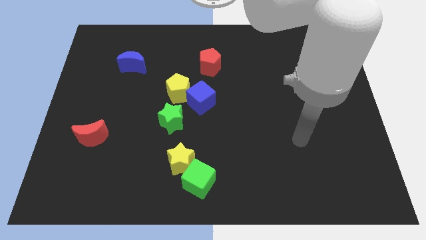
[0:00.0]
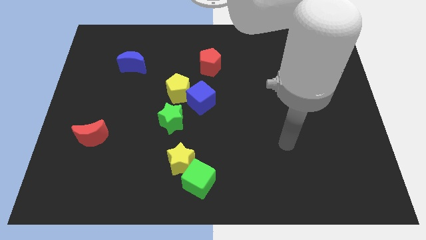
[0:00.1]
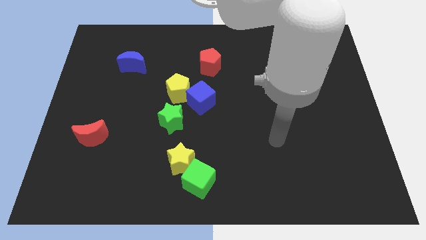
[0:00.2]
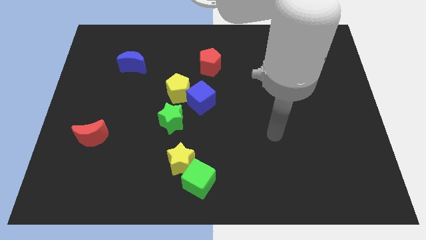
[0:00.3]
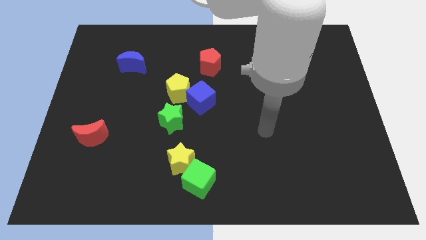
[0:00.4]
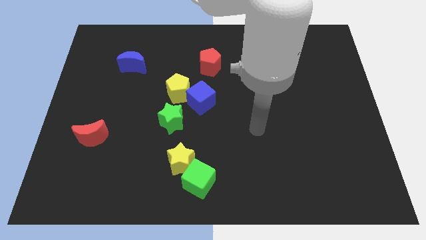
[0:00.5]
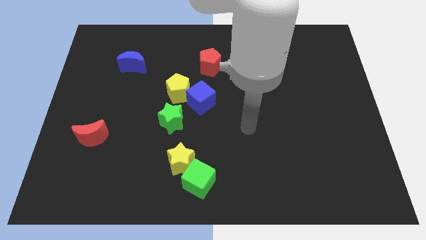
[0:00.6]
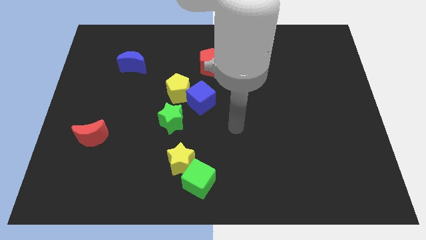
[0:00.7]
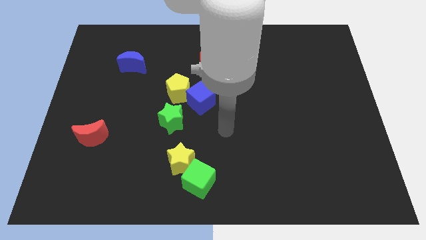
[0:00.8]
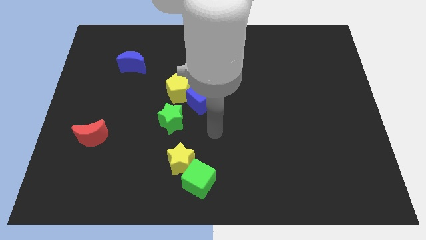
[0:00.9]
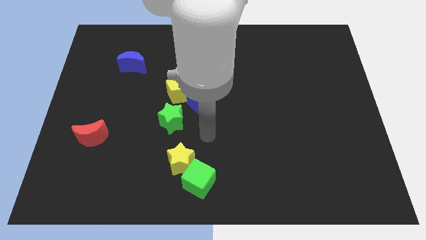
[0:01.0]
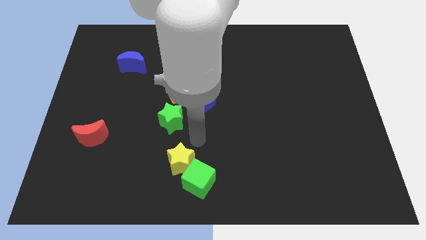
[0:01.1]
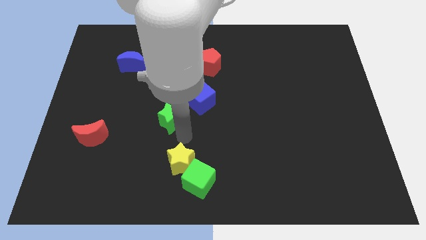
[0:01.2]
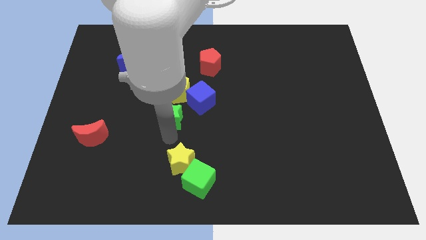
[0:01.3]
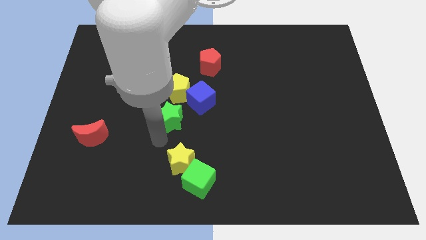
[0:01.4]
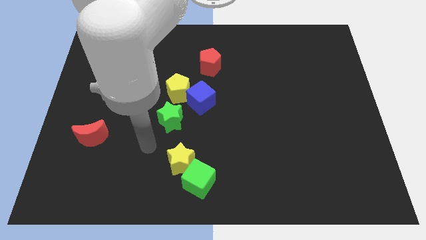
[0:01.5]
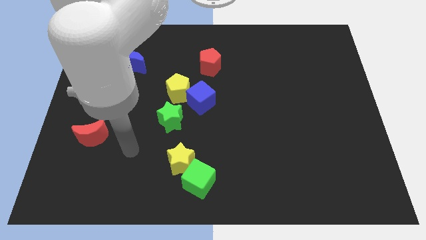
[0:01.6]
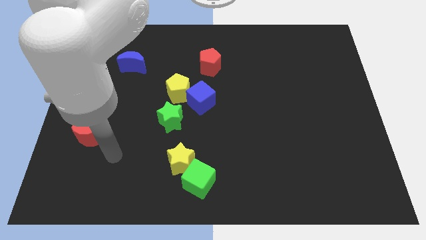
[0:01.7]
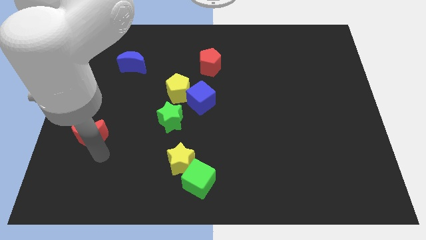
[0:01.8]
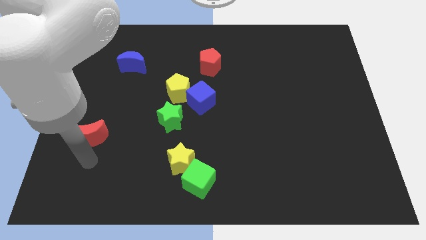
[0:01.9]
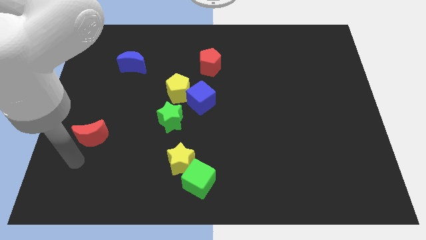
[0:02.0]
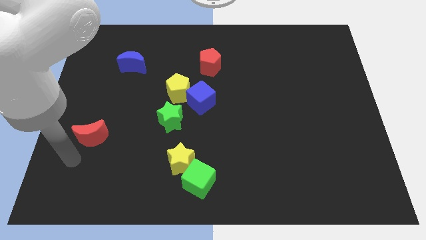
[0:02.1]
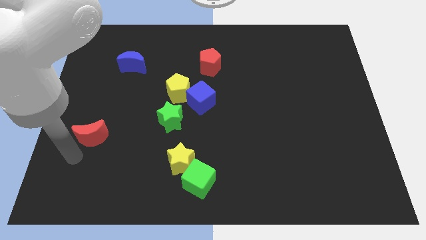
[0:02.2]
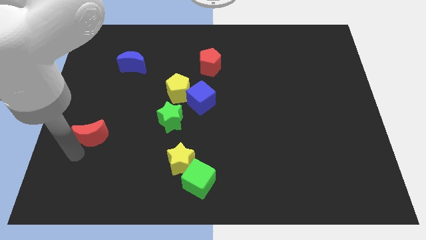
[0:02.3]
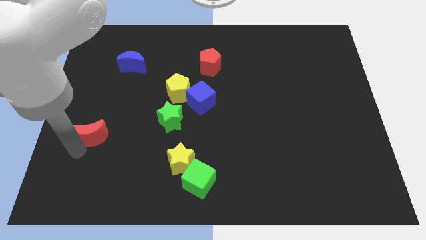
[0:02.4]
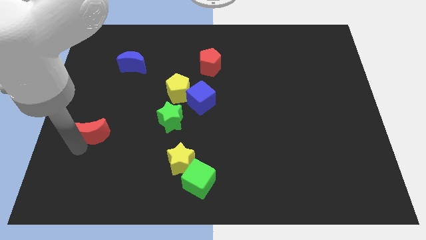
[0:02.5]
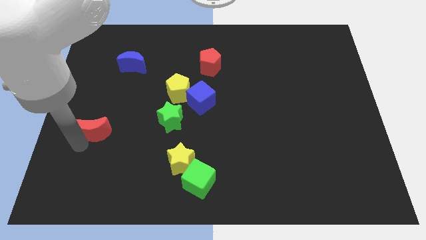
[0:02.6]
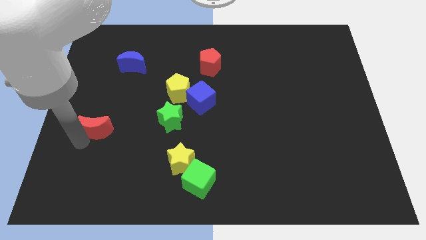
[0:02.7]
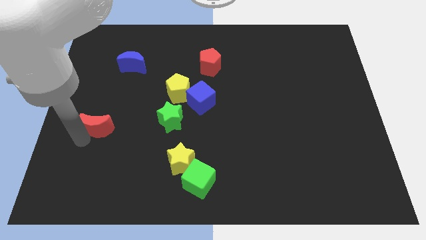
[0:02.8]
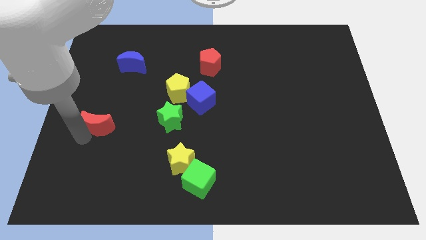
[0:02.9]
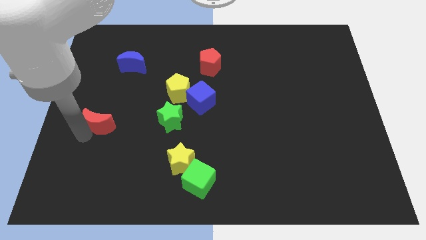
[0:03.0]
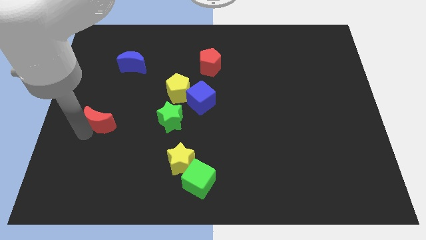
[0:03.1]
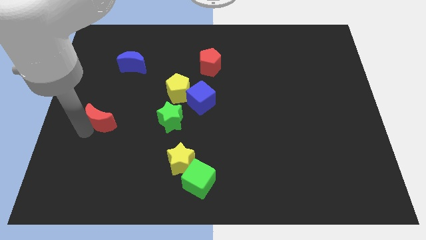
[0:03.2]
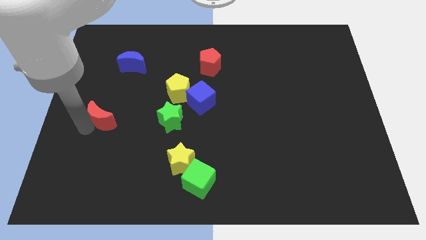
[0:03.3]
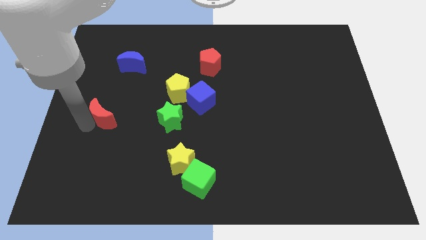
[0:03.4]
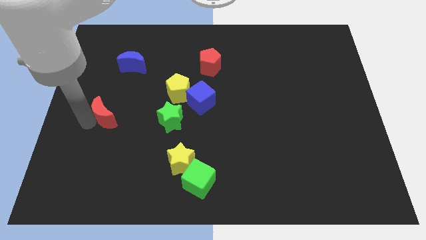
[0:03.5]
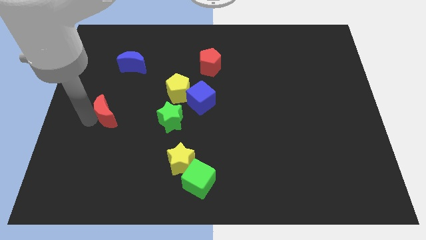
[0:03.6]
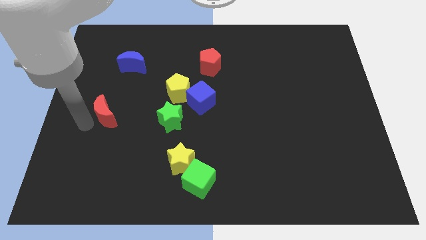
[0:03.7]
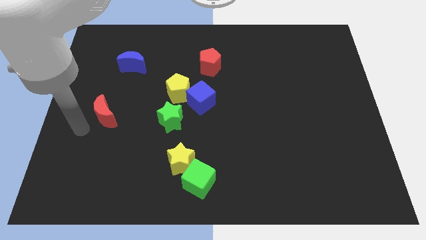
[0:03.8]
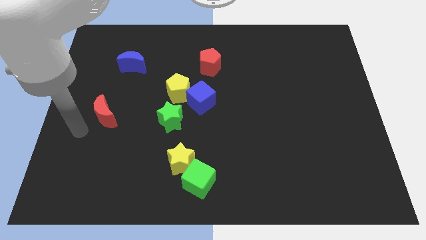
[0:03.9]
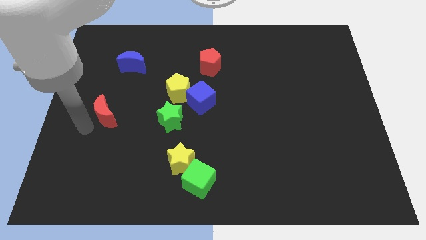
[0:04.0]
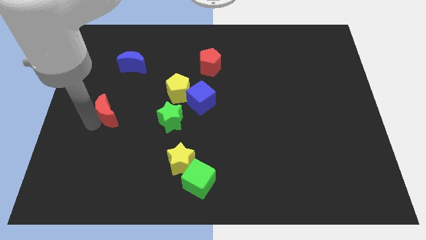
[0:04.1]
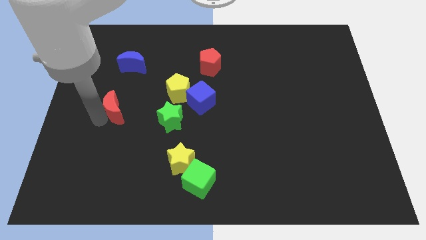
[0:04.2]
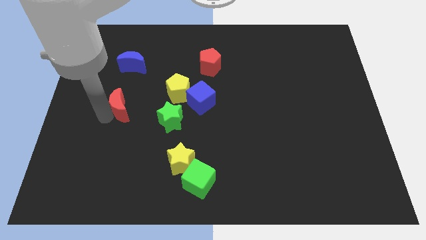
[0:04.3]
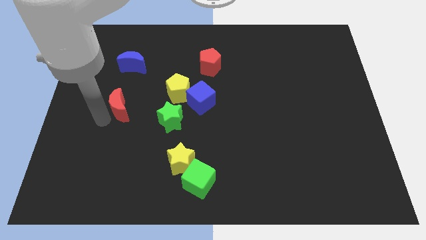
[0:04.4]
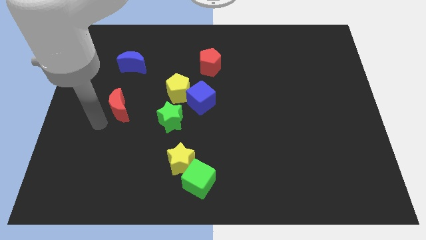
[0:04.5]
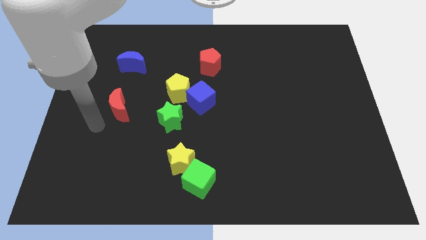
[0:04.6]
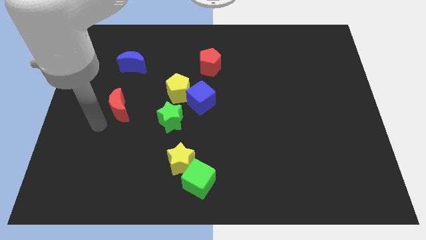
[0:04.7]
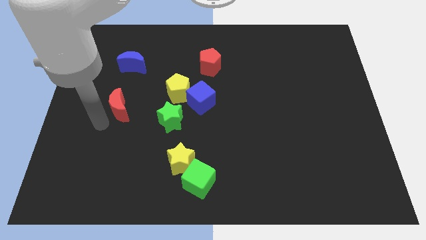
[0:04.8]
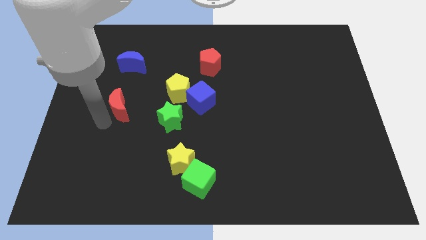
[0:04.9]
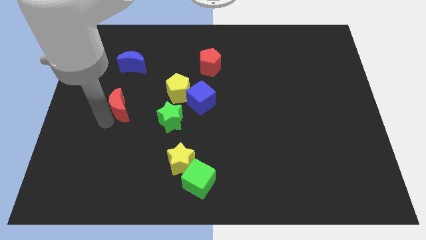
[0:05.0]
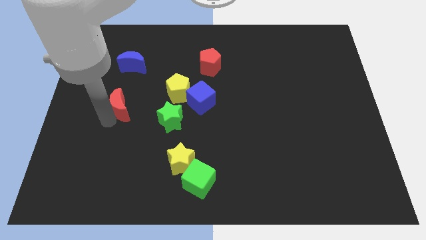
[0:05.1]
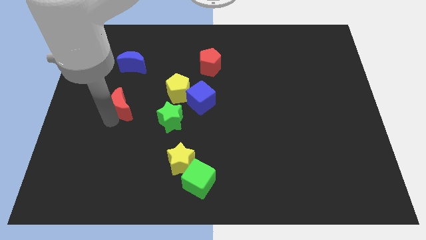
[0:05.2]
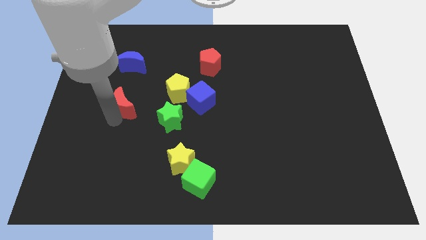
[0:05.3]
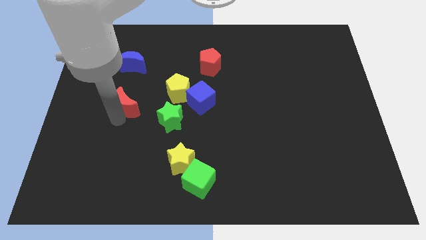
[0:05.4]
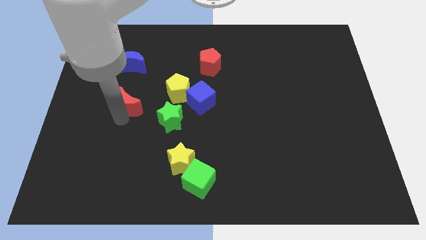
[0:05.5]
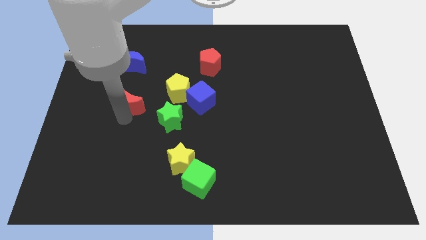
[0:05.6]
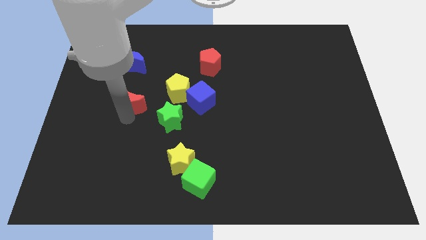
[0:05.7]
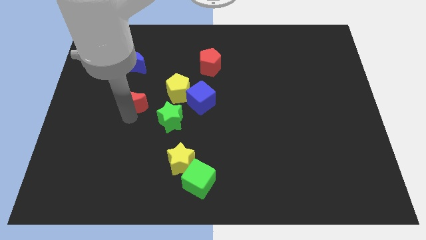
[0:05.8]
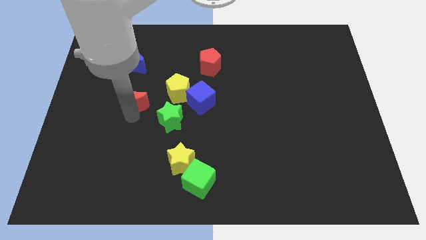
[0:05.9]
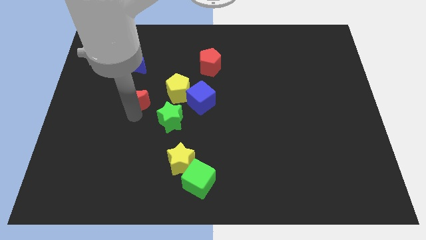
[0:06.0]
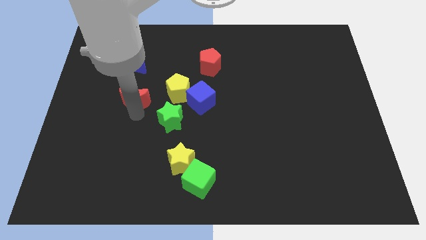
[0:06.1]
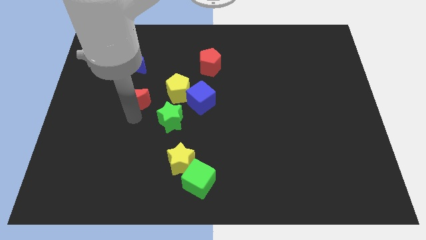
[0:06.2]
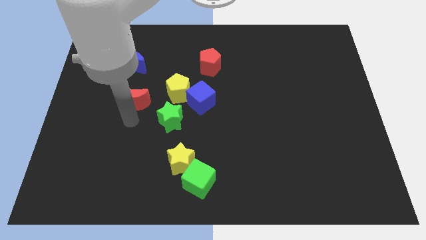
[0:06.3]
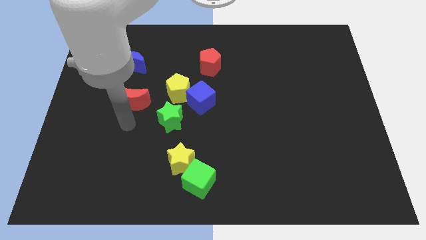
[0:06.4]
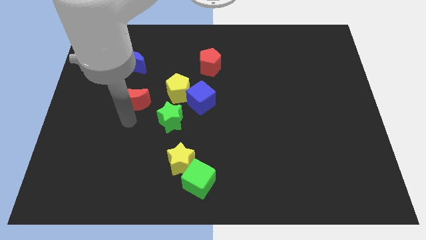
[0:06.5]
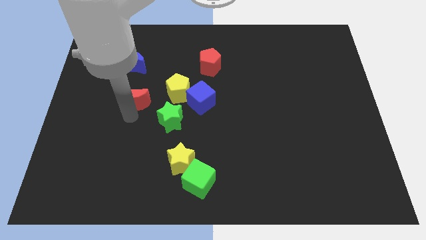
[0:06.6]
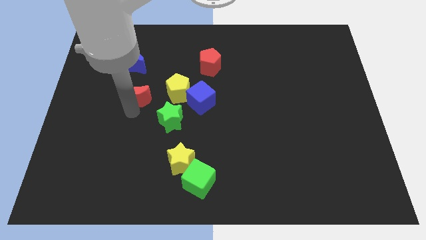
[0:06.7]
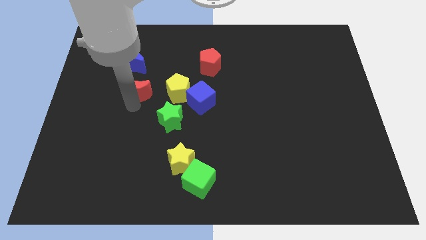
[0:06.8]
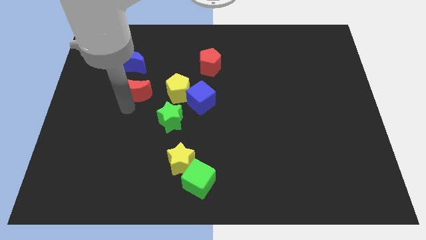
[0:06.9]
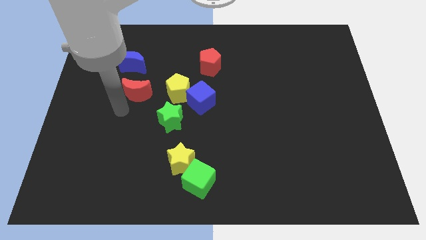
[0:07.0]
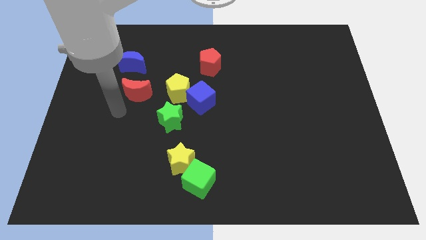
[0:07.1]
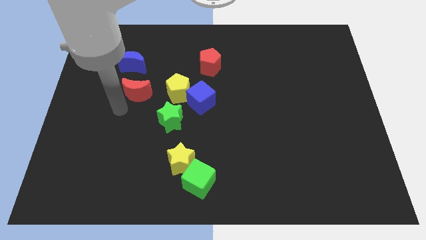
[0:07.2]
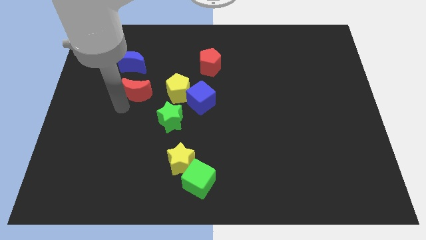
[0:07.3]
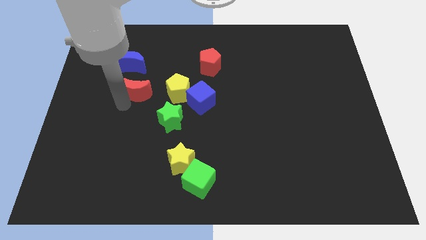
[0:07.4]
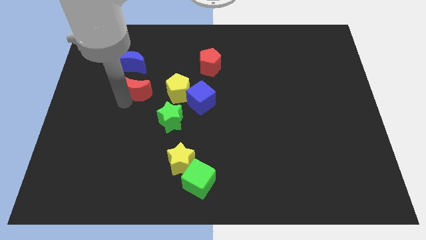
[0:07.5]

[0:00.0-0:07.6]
slide the red moon to the bottom right side of the blue moon
